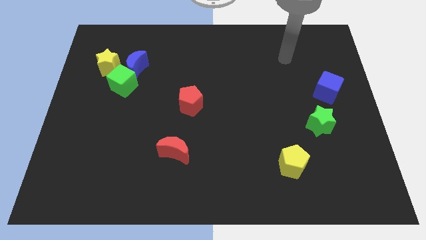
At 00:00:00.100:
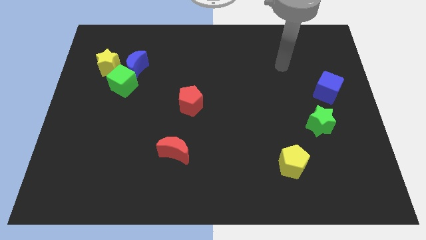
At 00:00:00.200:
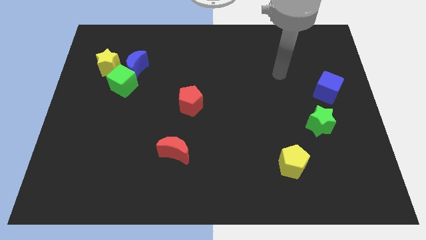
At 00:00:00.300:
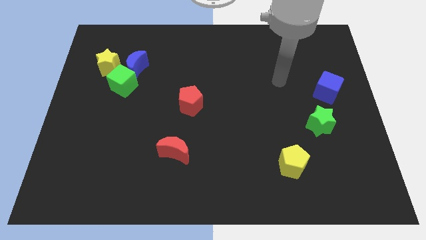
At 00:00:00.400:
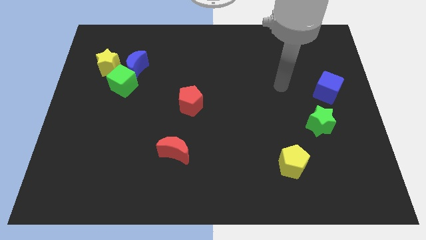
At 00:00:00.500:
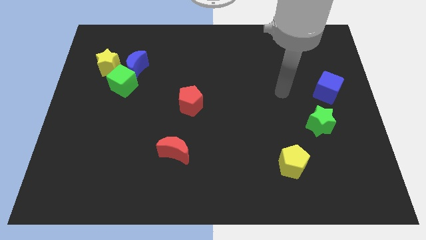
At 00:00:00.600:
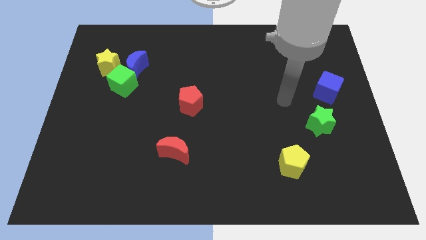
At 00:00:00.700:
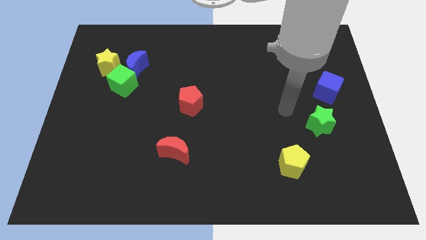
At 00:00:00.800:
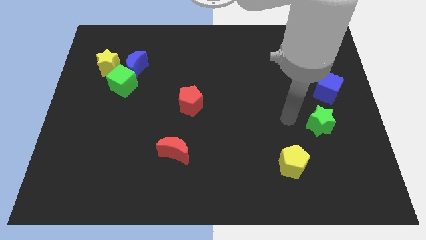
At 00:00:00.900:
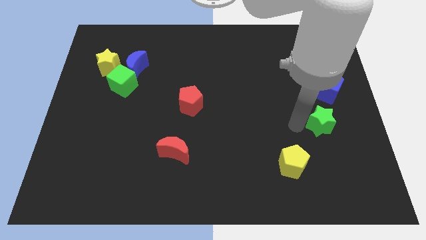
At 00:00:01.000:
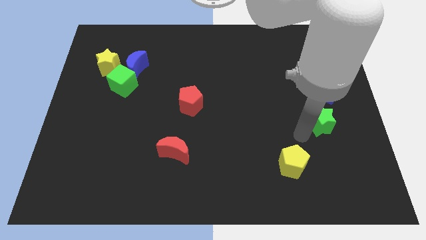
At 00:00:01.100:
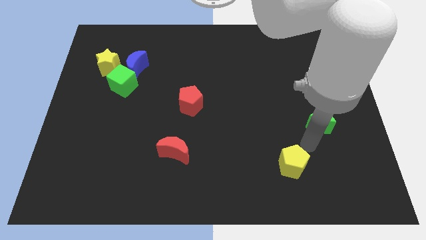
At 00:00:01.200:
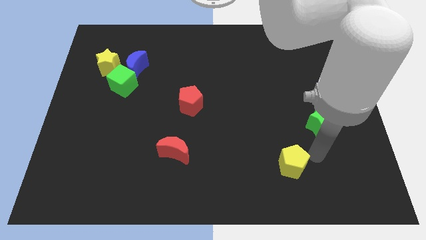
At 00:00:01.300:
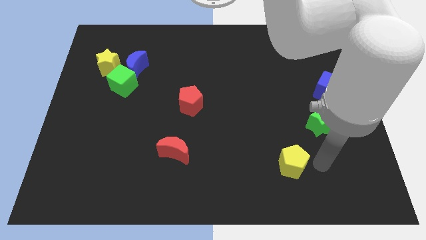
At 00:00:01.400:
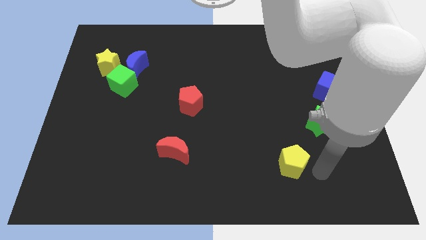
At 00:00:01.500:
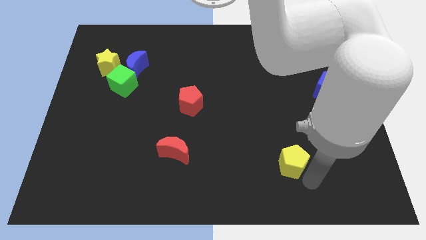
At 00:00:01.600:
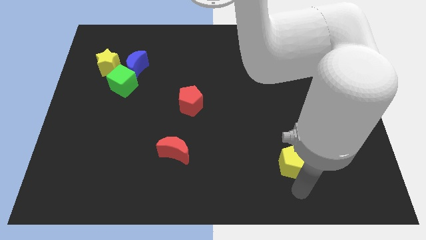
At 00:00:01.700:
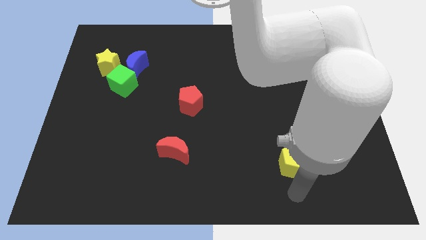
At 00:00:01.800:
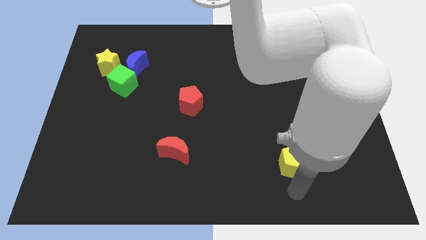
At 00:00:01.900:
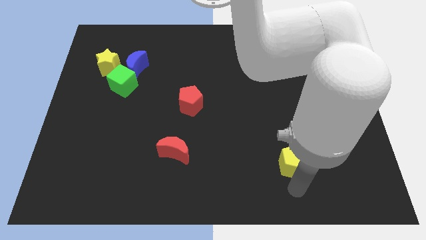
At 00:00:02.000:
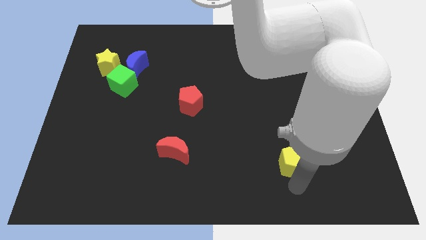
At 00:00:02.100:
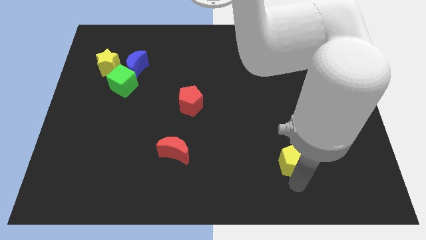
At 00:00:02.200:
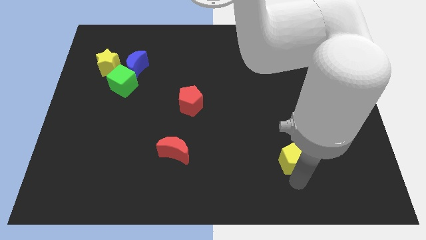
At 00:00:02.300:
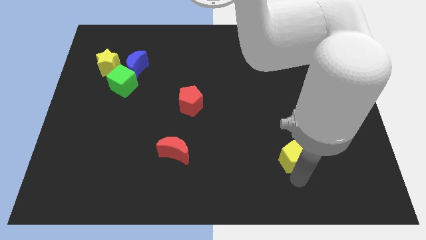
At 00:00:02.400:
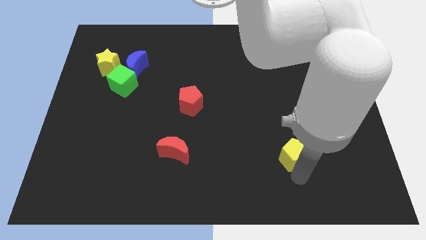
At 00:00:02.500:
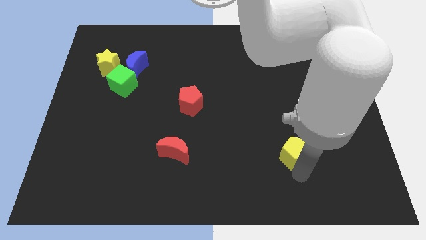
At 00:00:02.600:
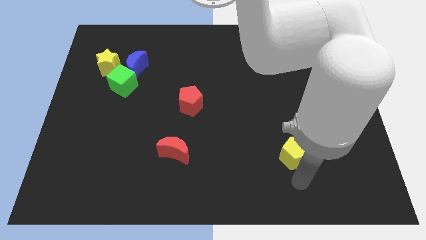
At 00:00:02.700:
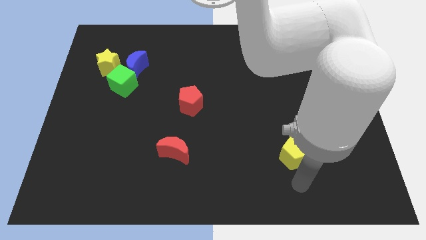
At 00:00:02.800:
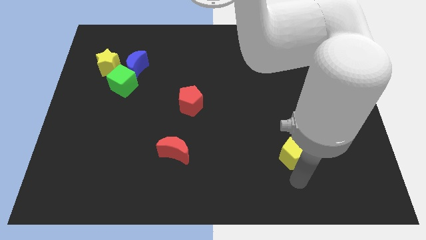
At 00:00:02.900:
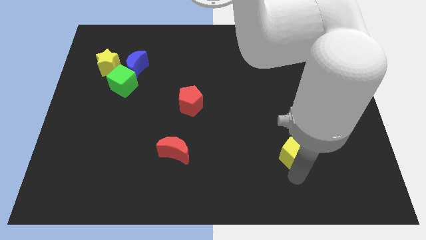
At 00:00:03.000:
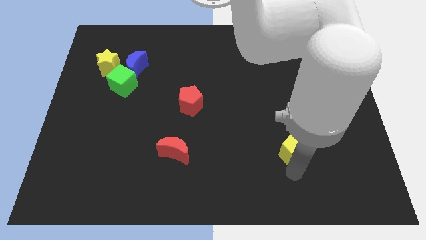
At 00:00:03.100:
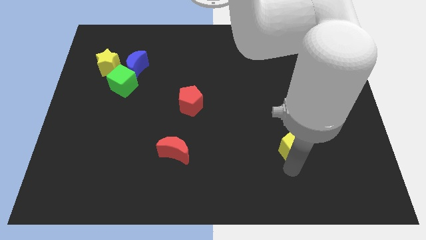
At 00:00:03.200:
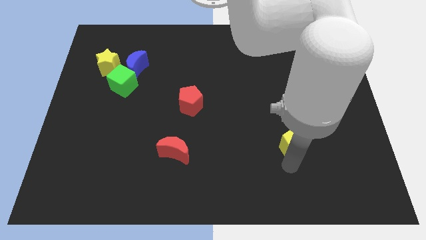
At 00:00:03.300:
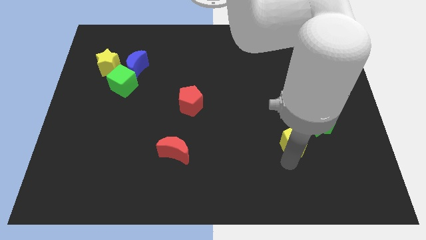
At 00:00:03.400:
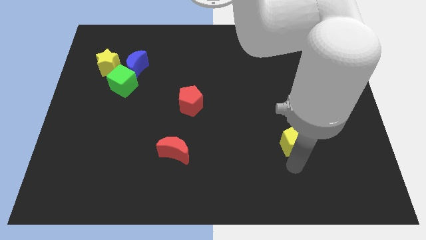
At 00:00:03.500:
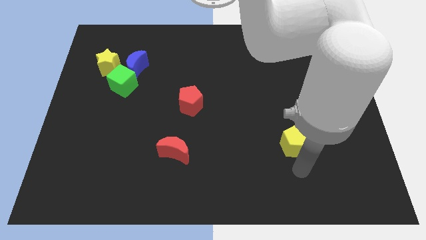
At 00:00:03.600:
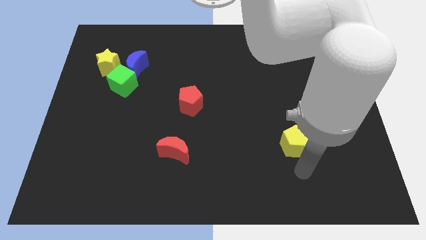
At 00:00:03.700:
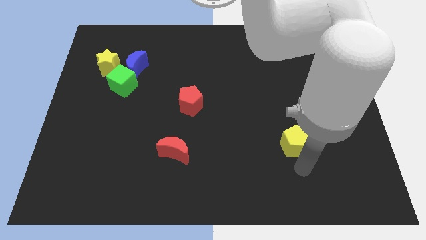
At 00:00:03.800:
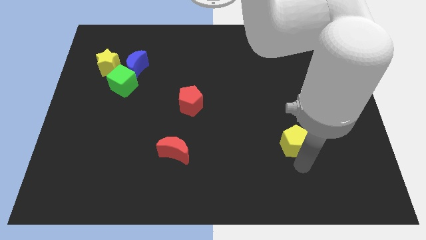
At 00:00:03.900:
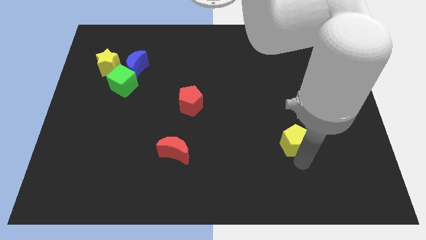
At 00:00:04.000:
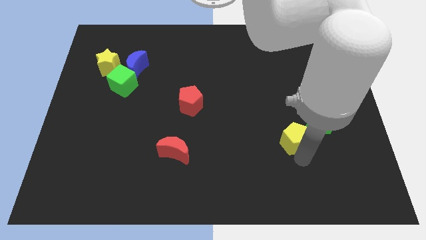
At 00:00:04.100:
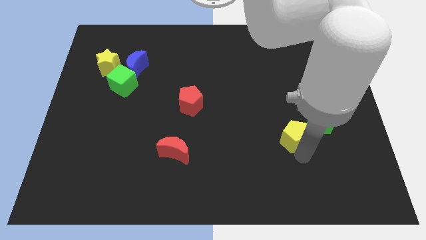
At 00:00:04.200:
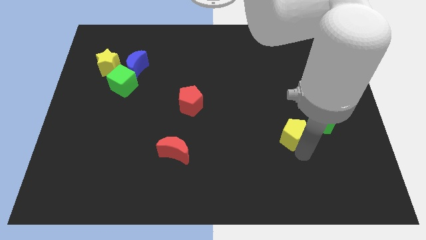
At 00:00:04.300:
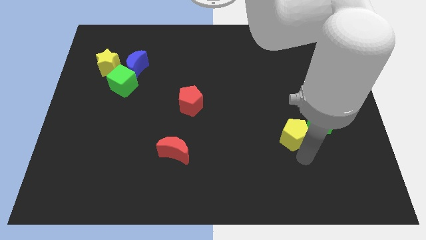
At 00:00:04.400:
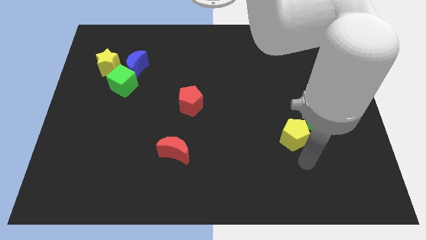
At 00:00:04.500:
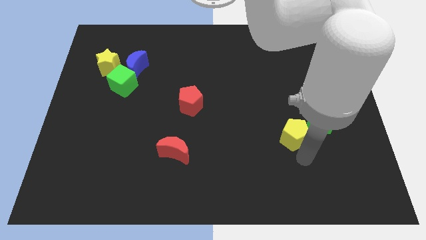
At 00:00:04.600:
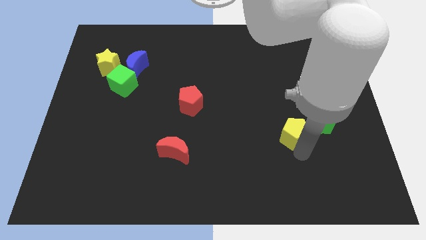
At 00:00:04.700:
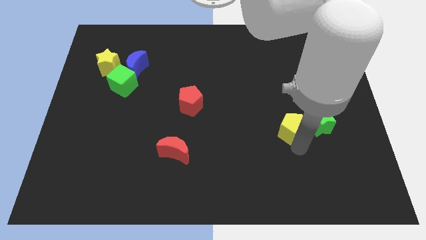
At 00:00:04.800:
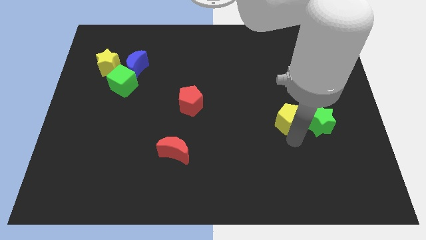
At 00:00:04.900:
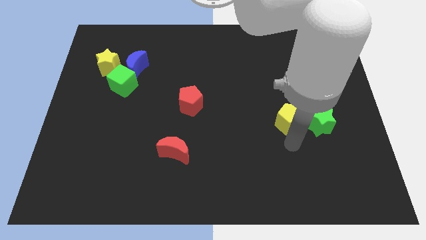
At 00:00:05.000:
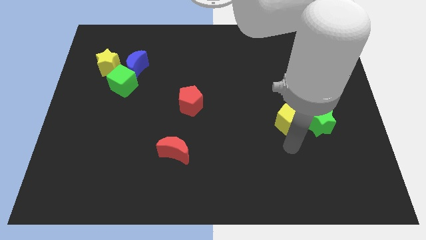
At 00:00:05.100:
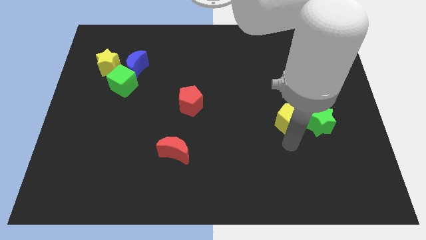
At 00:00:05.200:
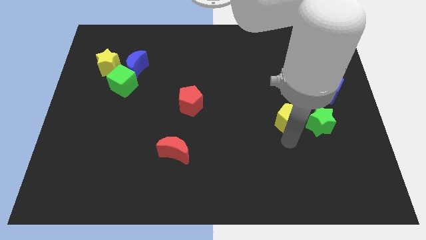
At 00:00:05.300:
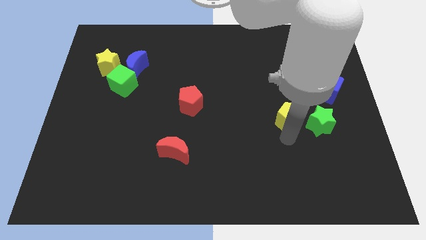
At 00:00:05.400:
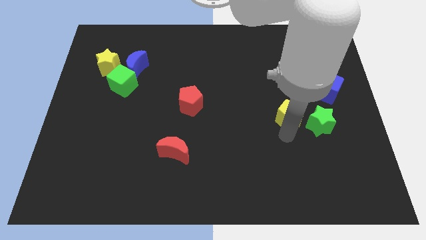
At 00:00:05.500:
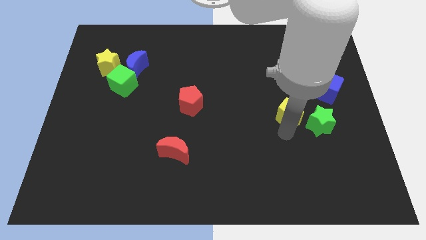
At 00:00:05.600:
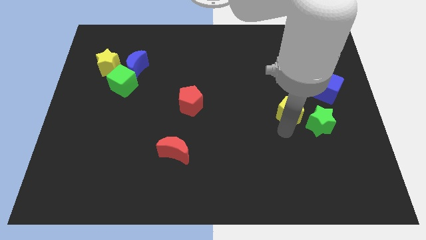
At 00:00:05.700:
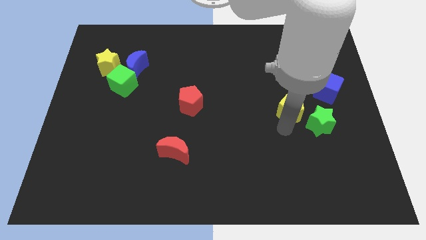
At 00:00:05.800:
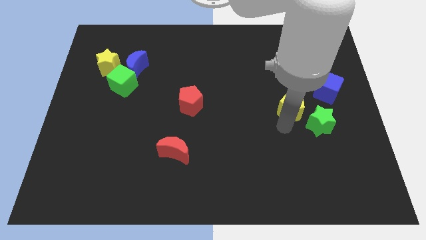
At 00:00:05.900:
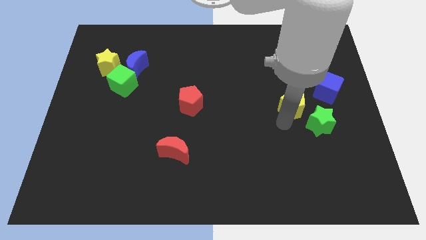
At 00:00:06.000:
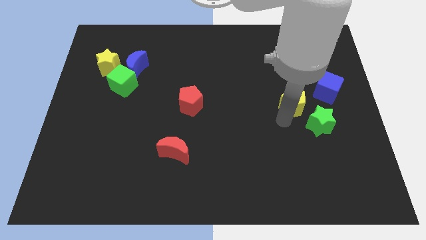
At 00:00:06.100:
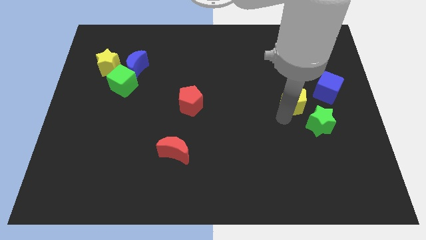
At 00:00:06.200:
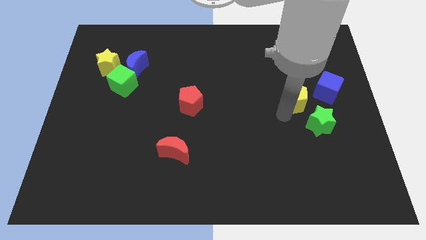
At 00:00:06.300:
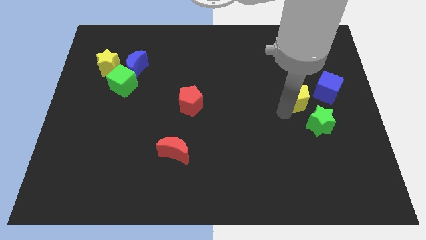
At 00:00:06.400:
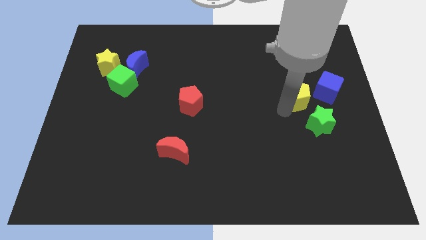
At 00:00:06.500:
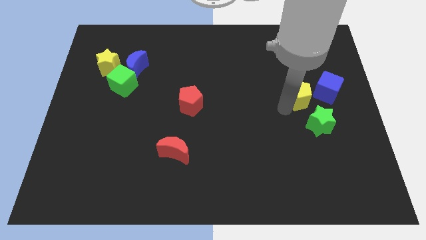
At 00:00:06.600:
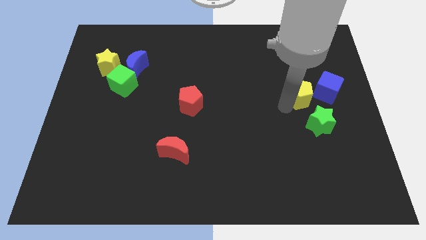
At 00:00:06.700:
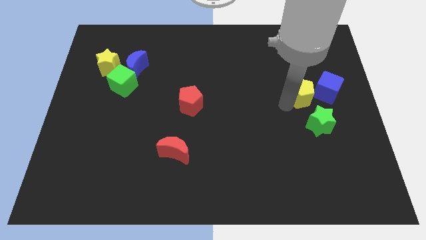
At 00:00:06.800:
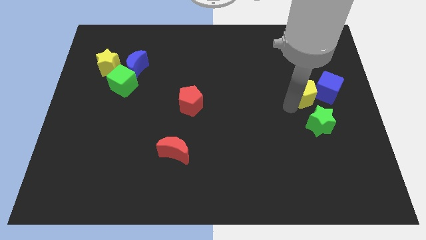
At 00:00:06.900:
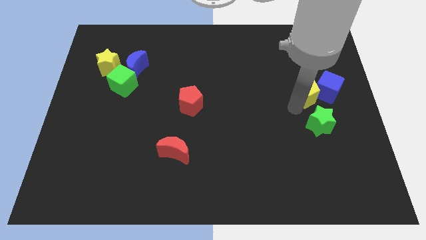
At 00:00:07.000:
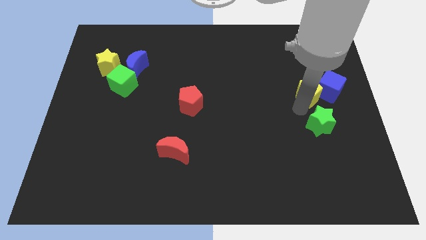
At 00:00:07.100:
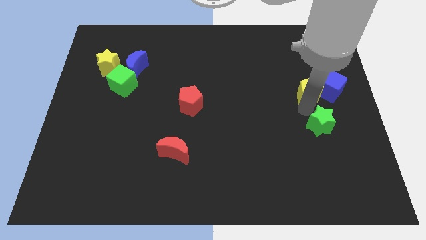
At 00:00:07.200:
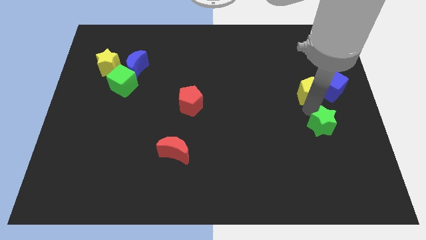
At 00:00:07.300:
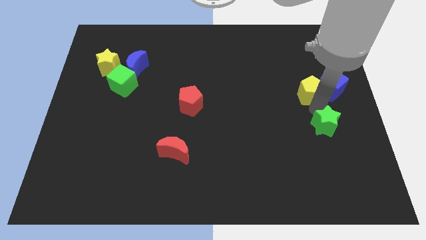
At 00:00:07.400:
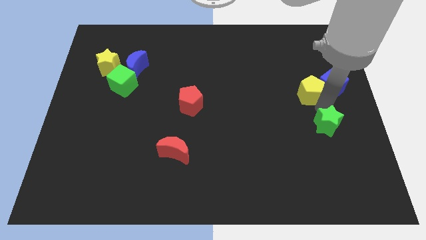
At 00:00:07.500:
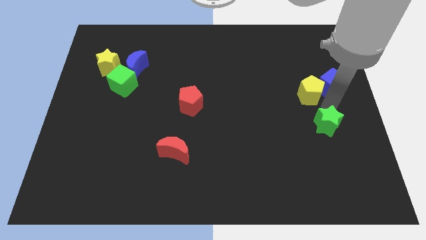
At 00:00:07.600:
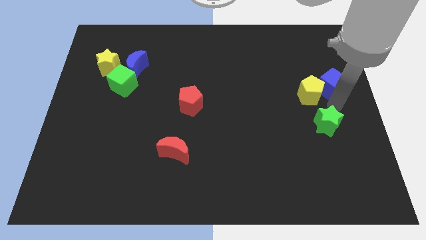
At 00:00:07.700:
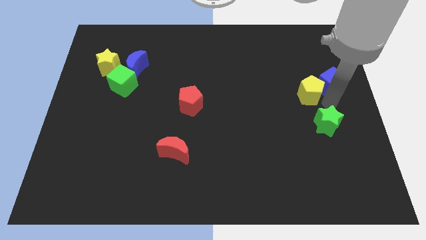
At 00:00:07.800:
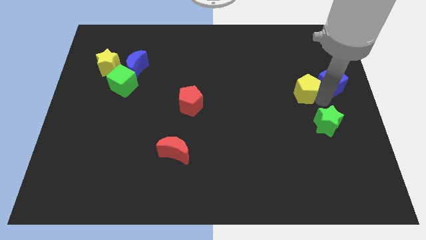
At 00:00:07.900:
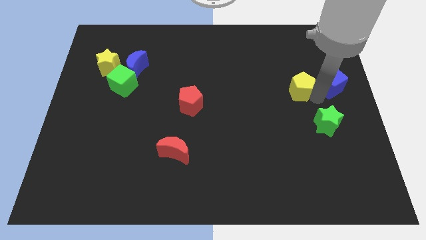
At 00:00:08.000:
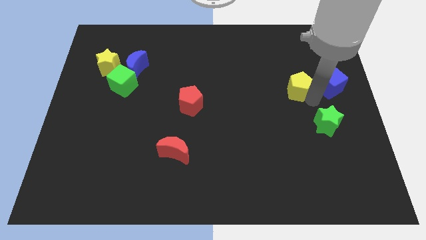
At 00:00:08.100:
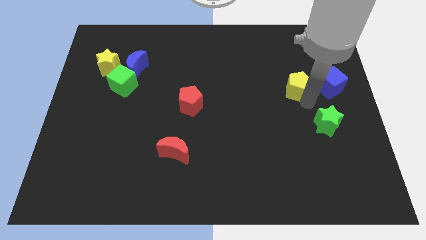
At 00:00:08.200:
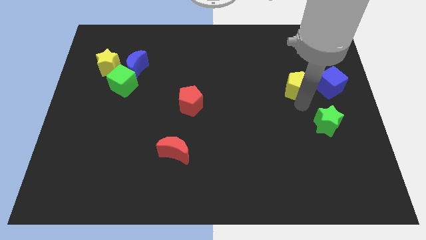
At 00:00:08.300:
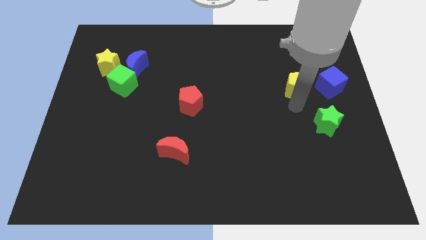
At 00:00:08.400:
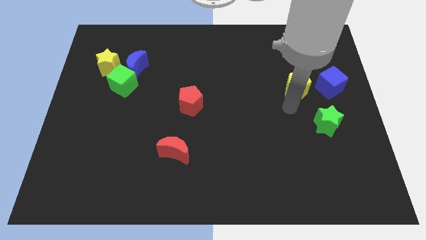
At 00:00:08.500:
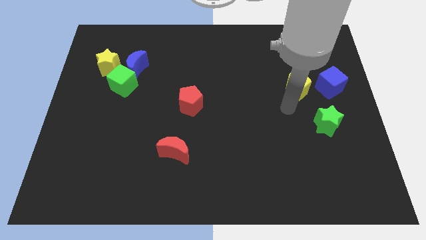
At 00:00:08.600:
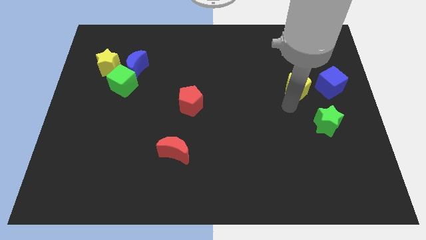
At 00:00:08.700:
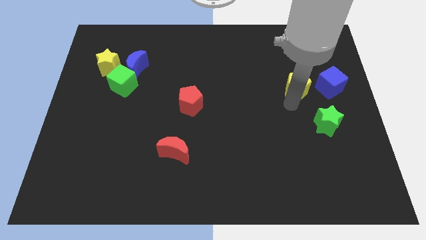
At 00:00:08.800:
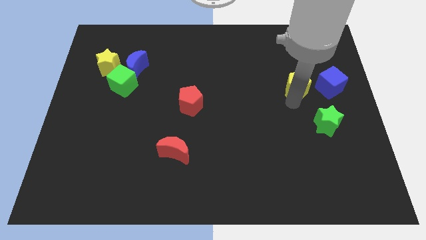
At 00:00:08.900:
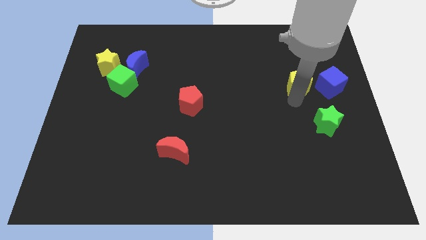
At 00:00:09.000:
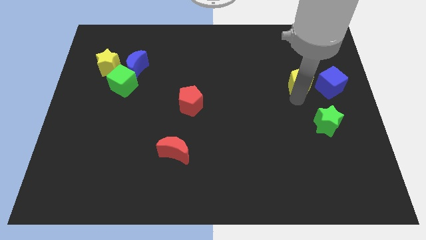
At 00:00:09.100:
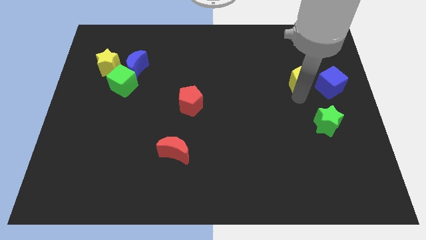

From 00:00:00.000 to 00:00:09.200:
slide the yellow pentagon to the top left side of the blue cube
